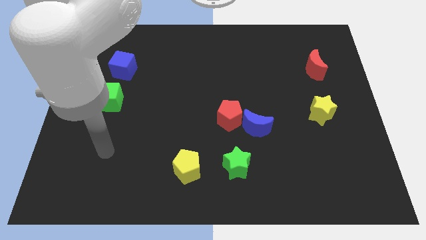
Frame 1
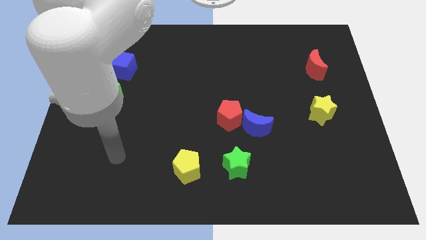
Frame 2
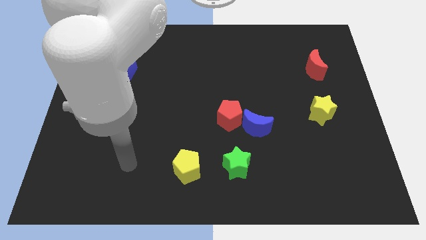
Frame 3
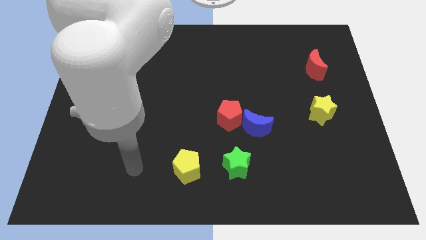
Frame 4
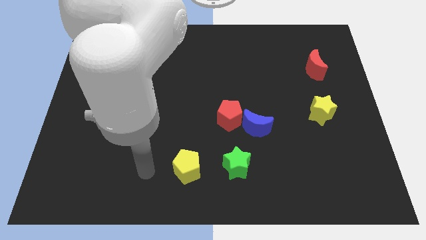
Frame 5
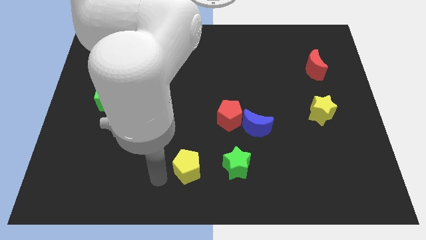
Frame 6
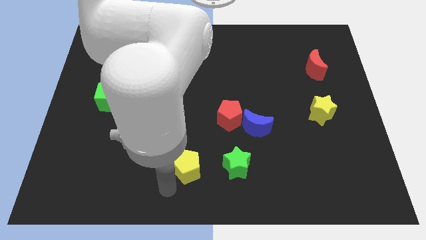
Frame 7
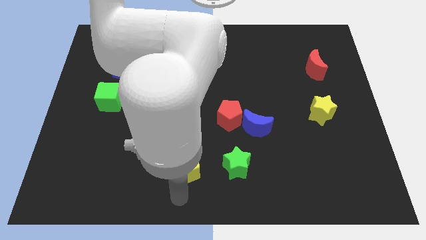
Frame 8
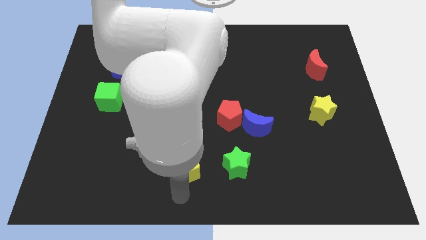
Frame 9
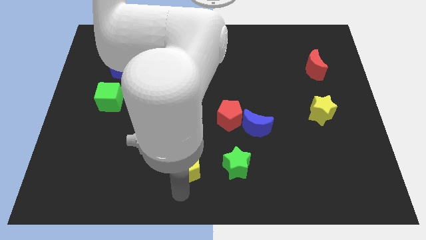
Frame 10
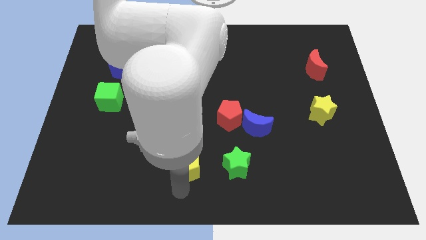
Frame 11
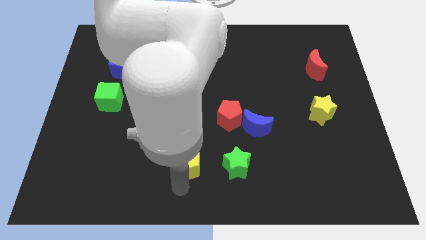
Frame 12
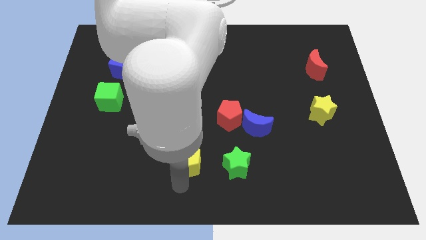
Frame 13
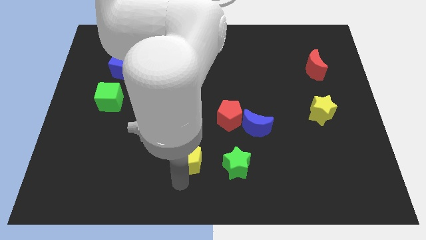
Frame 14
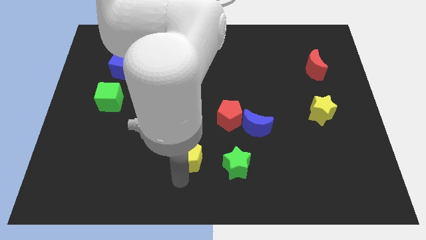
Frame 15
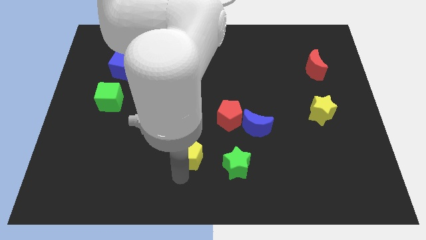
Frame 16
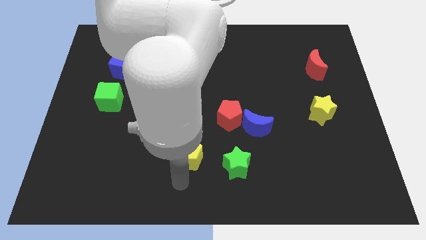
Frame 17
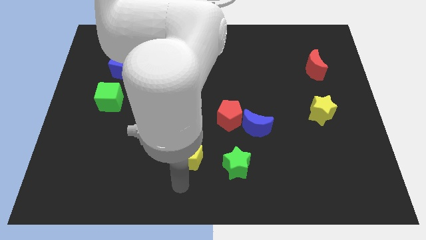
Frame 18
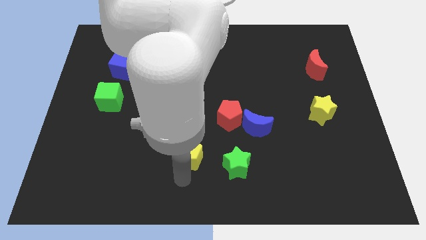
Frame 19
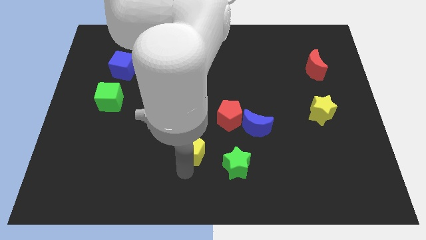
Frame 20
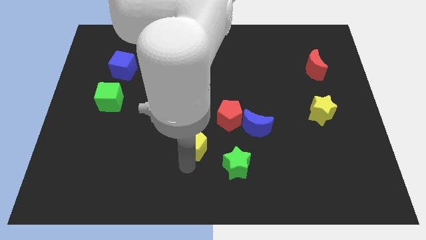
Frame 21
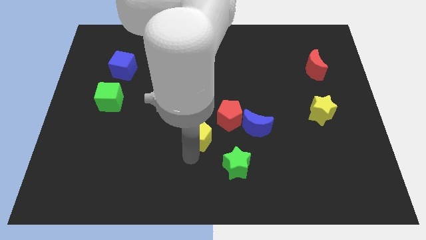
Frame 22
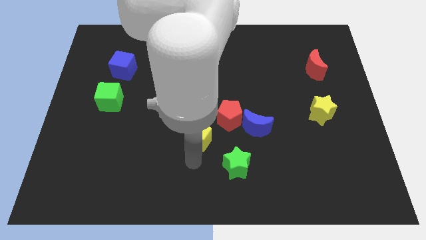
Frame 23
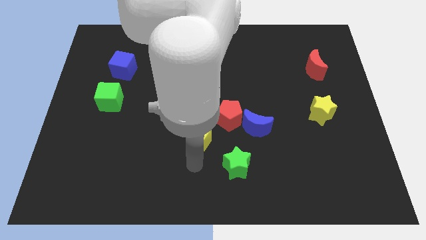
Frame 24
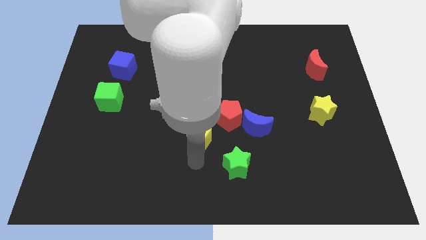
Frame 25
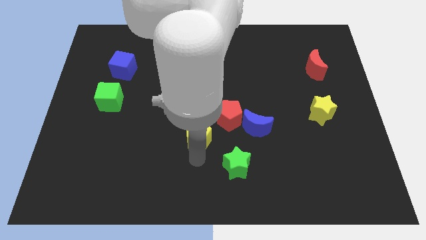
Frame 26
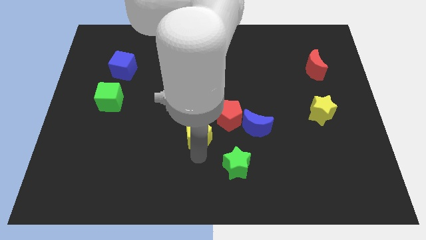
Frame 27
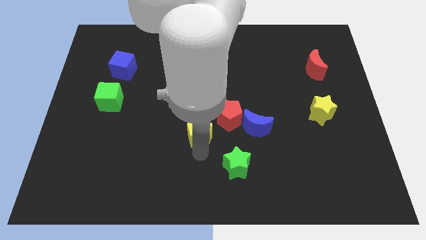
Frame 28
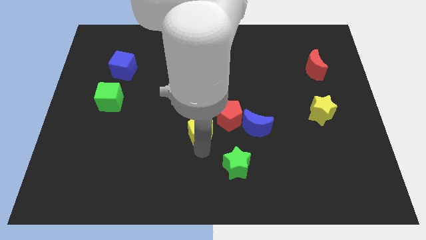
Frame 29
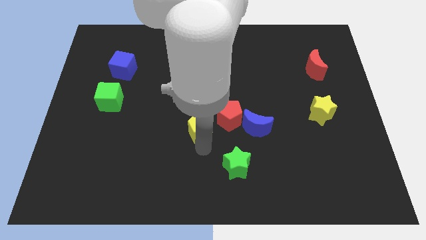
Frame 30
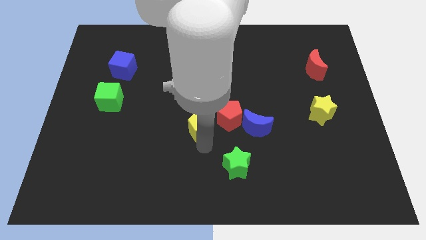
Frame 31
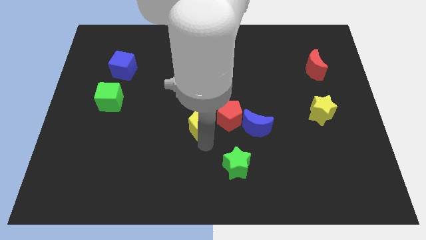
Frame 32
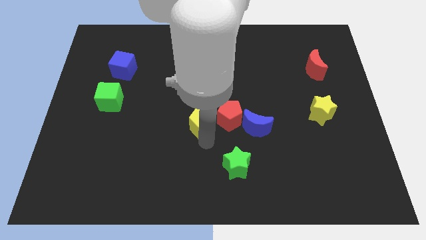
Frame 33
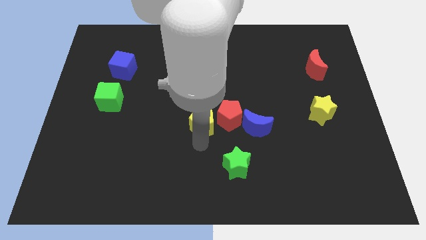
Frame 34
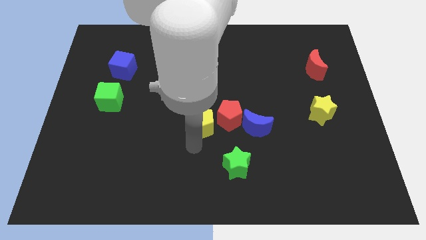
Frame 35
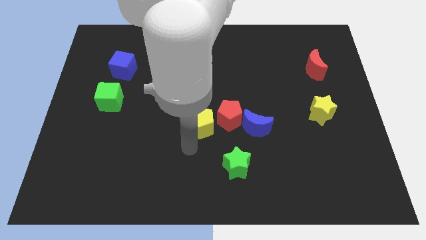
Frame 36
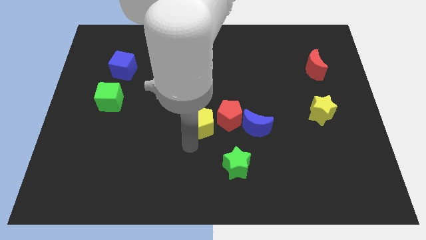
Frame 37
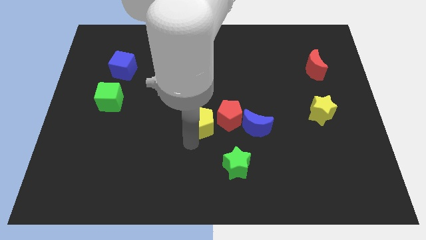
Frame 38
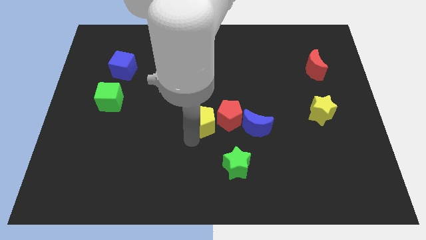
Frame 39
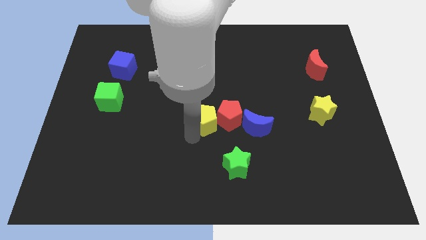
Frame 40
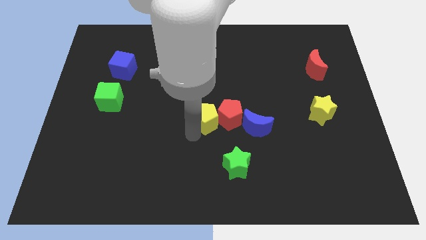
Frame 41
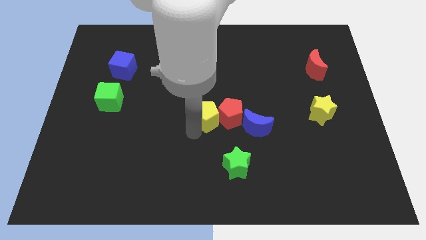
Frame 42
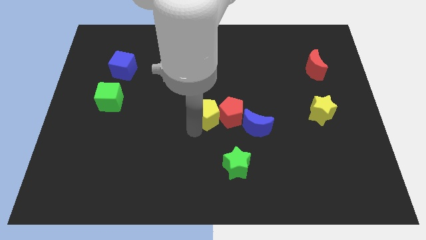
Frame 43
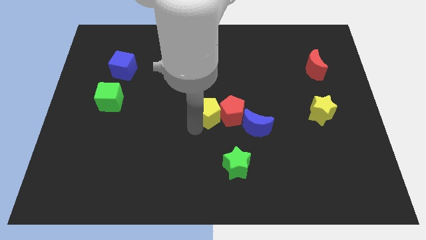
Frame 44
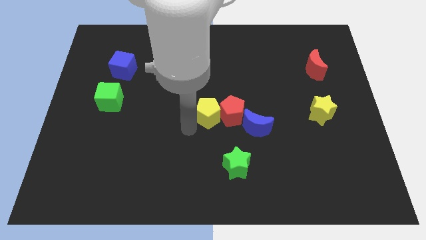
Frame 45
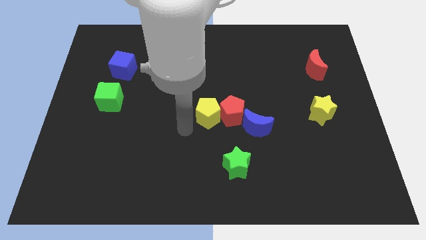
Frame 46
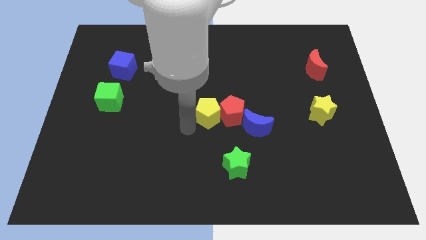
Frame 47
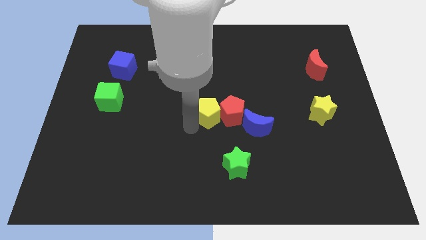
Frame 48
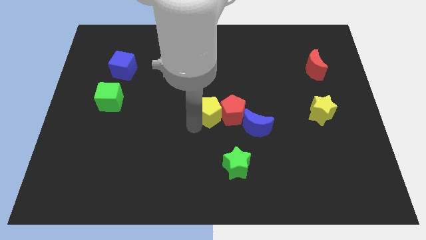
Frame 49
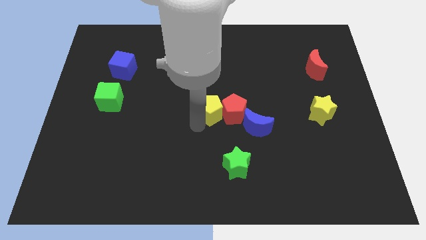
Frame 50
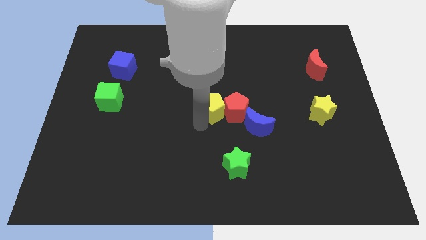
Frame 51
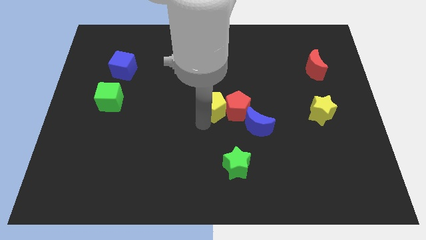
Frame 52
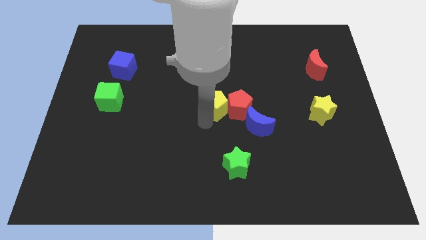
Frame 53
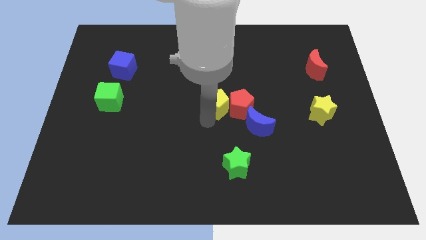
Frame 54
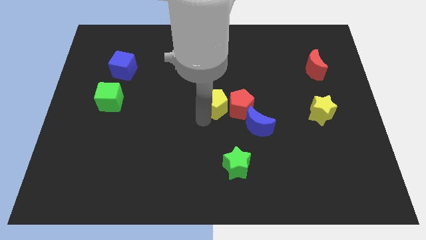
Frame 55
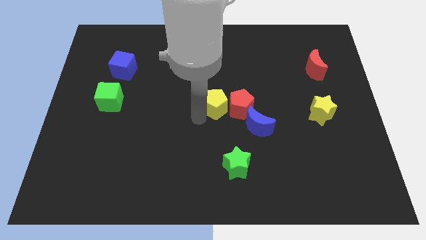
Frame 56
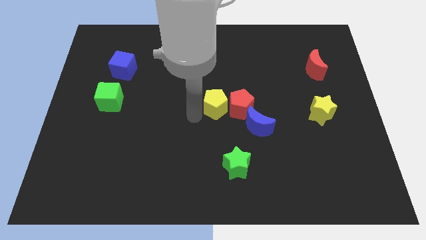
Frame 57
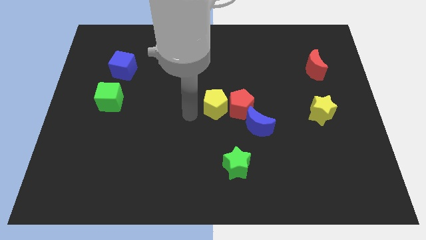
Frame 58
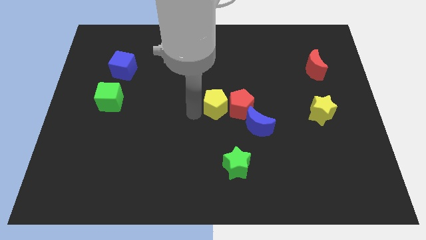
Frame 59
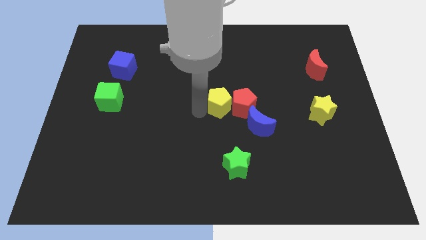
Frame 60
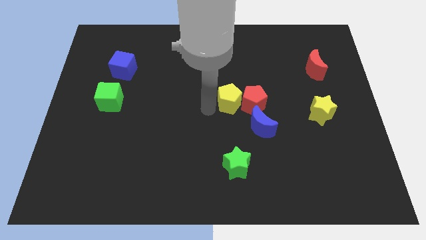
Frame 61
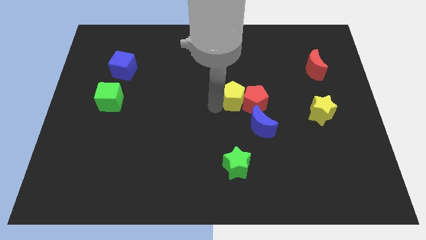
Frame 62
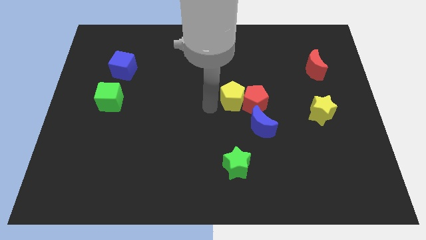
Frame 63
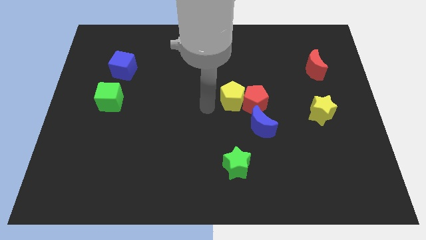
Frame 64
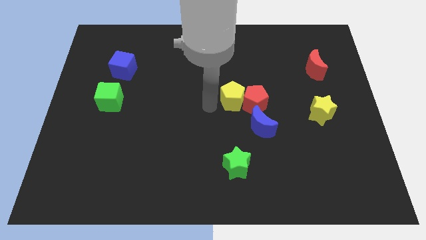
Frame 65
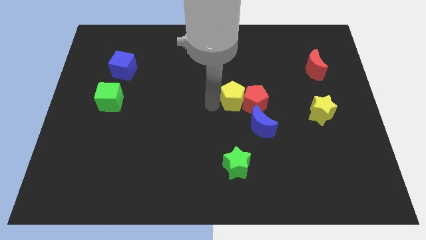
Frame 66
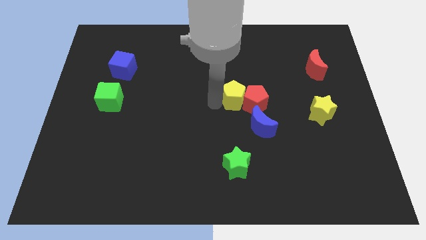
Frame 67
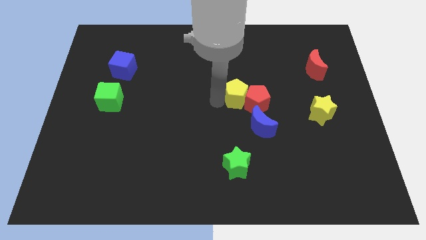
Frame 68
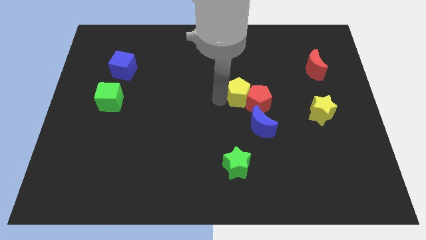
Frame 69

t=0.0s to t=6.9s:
move the yellow pentagon to the top of the blue moon
